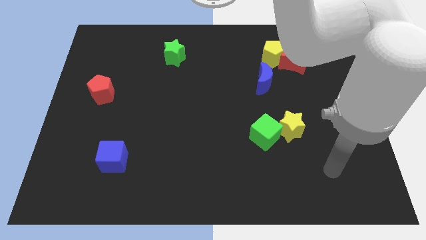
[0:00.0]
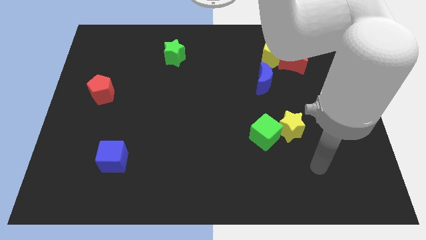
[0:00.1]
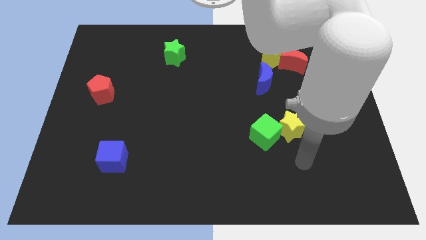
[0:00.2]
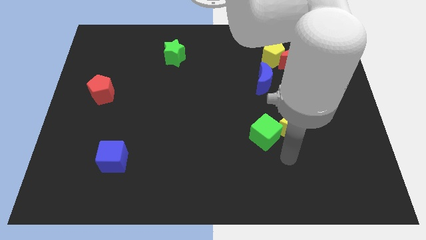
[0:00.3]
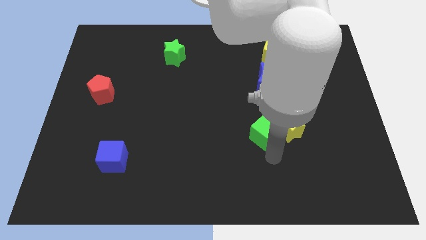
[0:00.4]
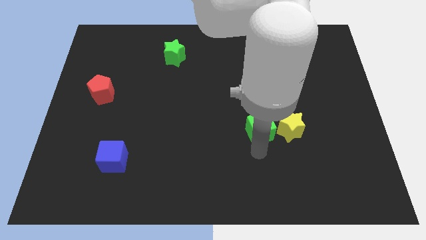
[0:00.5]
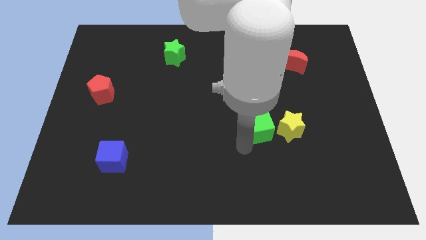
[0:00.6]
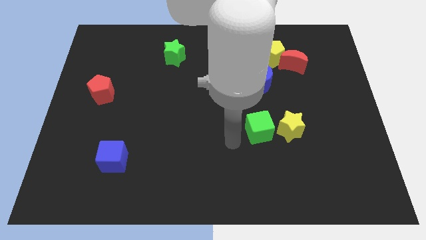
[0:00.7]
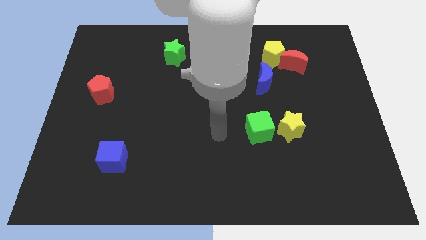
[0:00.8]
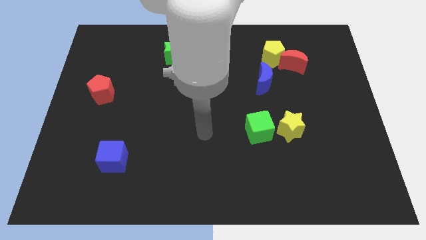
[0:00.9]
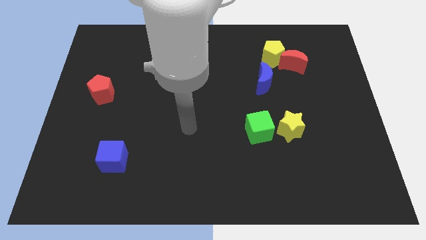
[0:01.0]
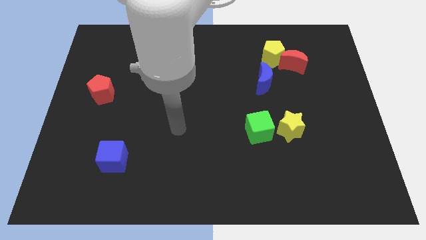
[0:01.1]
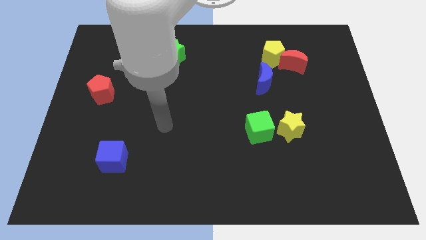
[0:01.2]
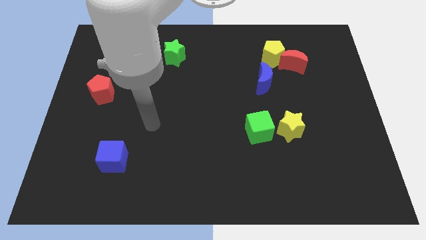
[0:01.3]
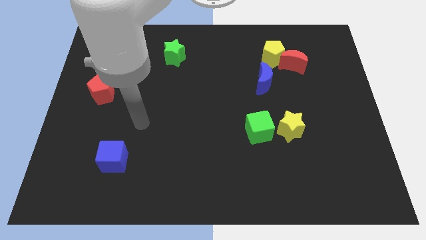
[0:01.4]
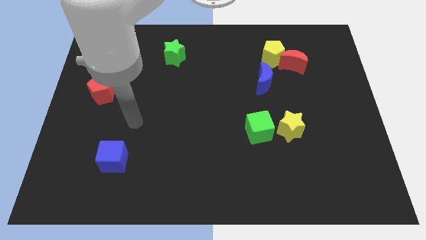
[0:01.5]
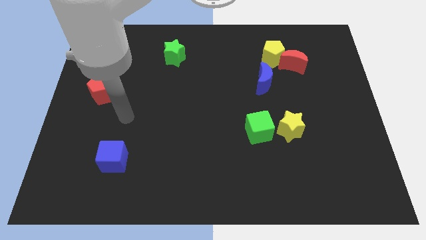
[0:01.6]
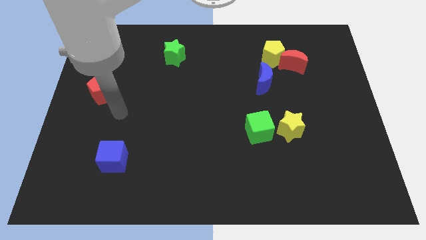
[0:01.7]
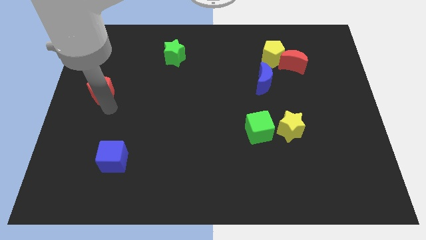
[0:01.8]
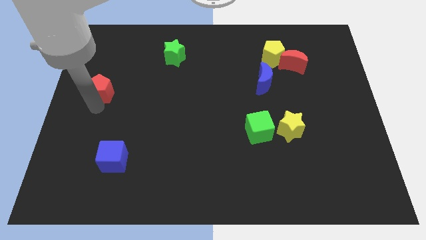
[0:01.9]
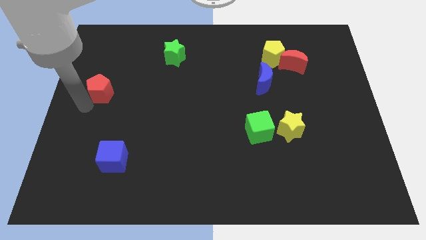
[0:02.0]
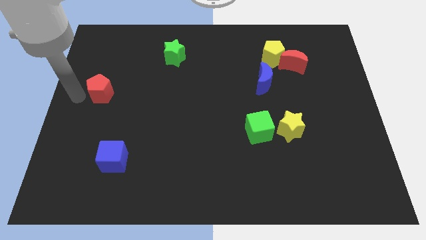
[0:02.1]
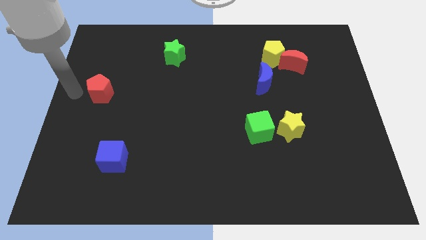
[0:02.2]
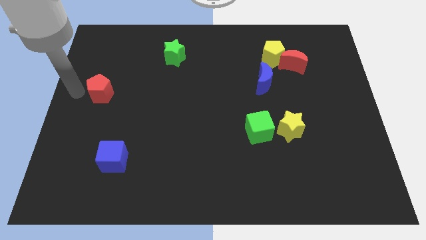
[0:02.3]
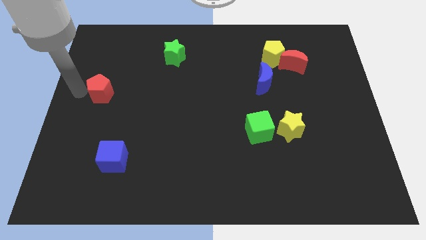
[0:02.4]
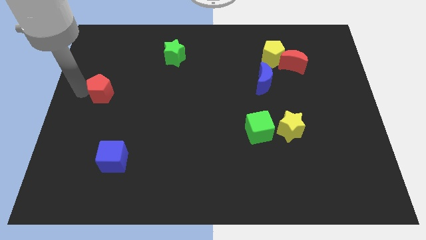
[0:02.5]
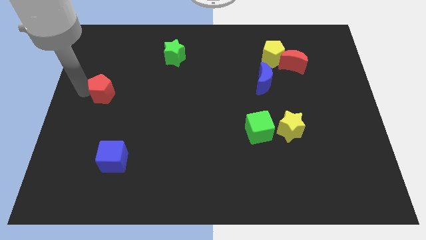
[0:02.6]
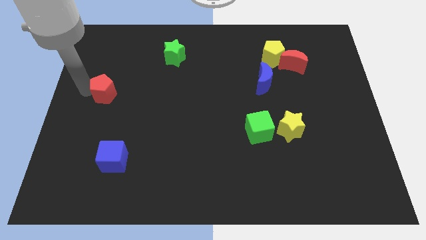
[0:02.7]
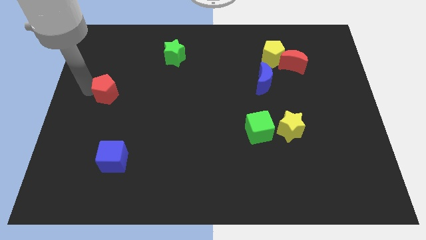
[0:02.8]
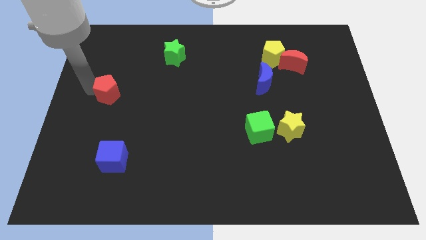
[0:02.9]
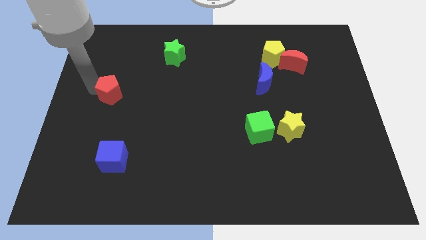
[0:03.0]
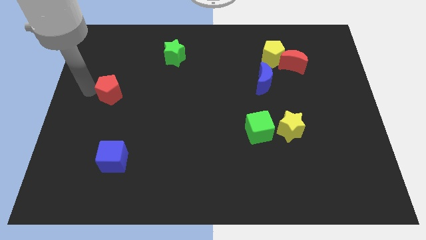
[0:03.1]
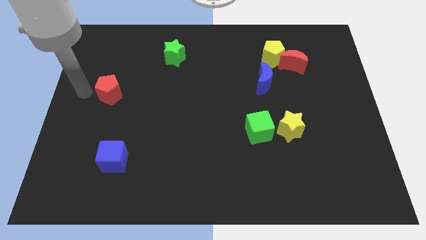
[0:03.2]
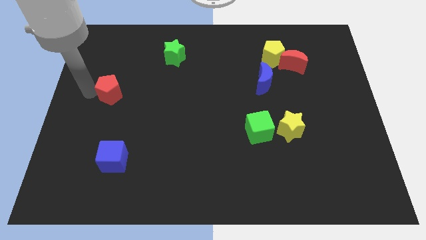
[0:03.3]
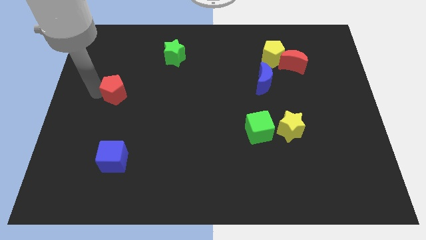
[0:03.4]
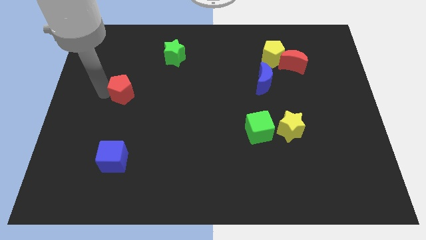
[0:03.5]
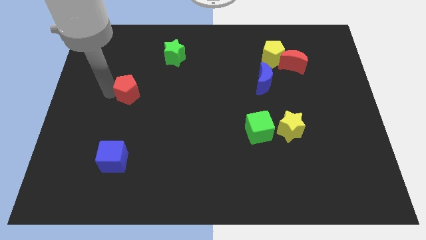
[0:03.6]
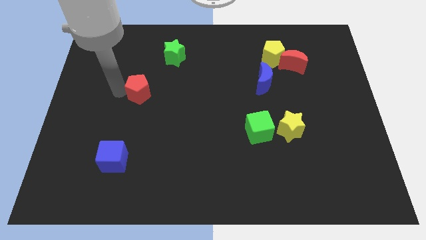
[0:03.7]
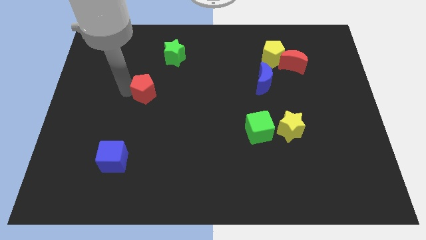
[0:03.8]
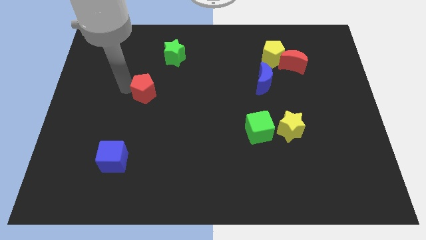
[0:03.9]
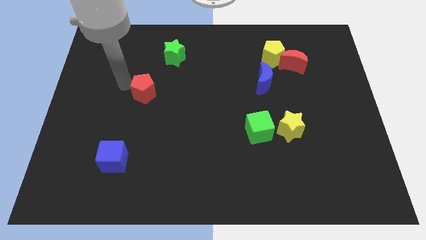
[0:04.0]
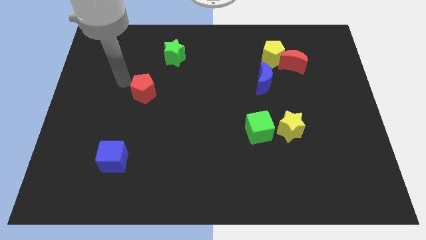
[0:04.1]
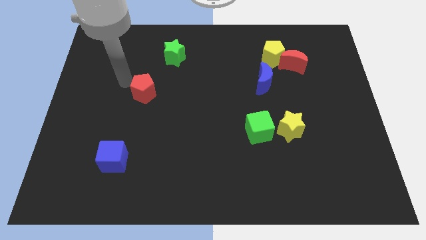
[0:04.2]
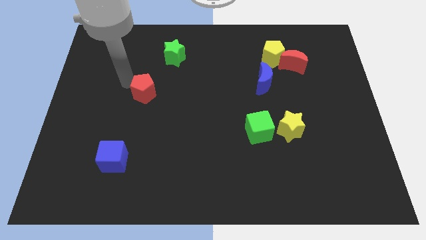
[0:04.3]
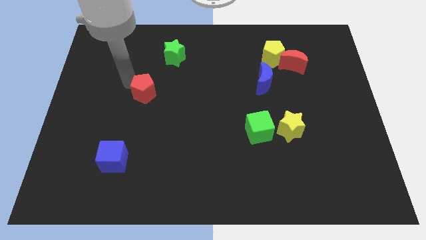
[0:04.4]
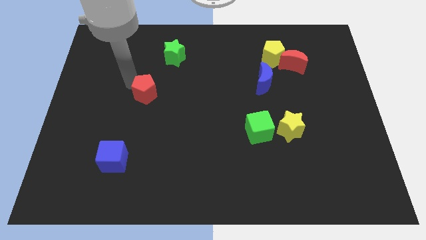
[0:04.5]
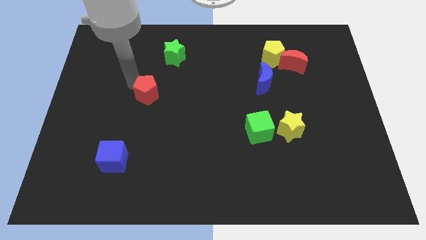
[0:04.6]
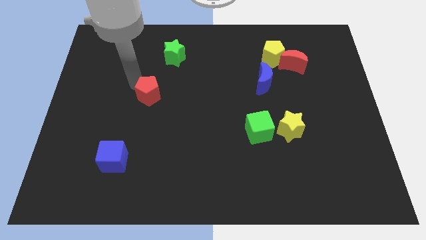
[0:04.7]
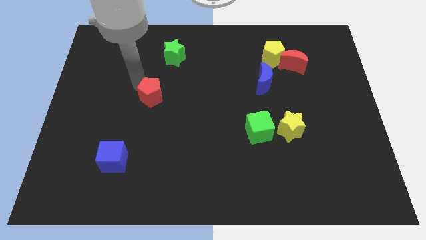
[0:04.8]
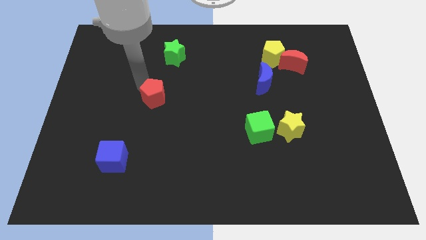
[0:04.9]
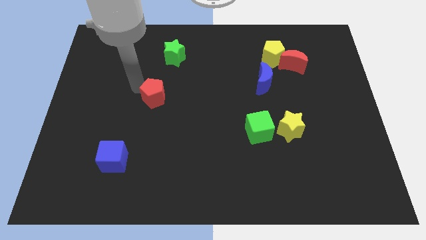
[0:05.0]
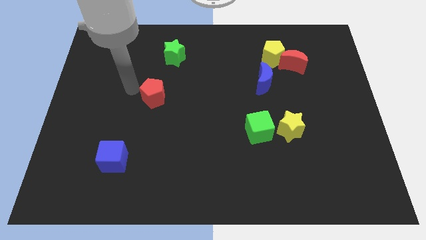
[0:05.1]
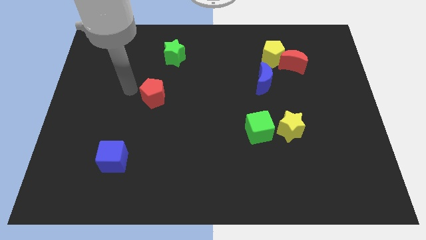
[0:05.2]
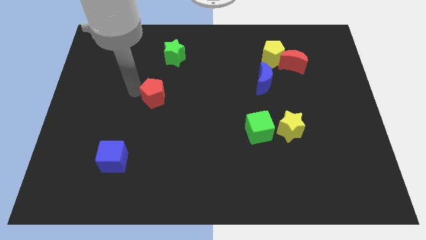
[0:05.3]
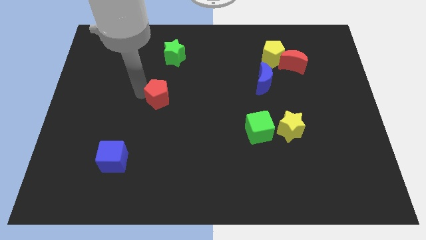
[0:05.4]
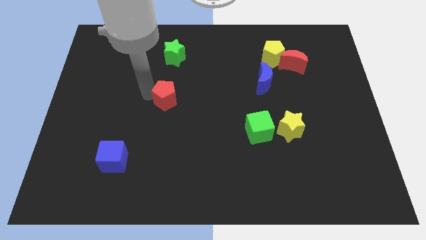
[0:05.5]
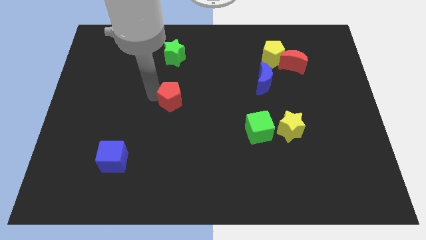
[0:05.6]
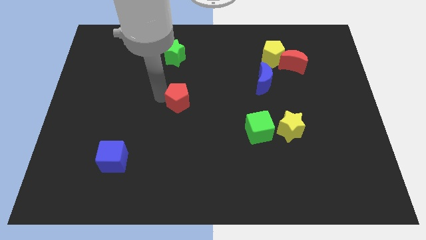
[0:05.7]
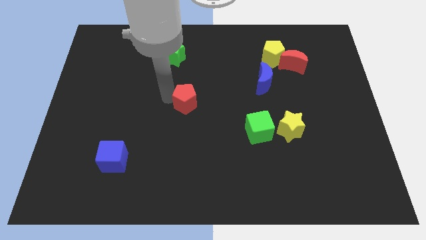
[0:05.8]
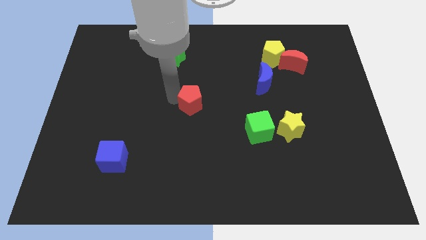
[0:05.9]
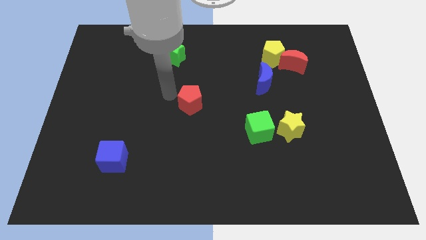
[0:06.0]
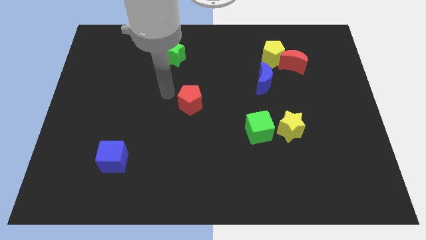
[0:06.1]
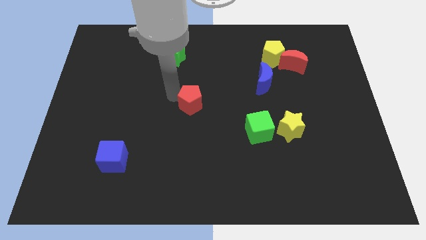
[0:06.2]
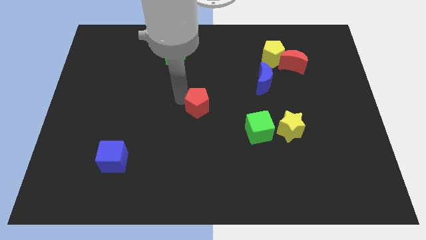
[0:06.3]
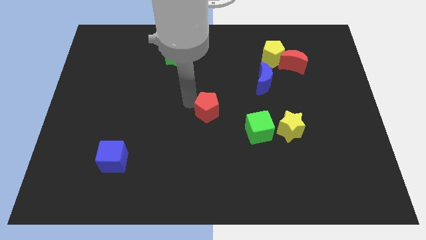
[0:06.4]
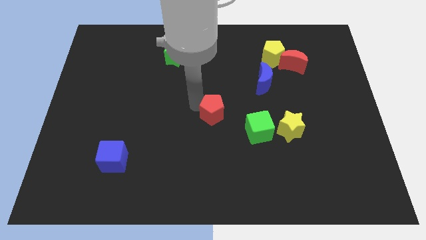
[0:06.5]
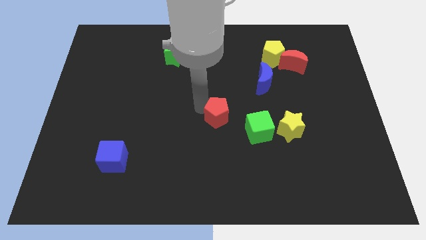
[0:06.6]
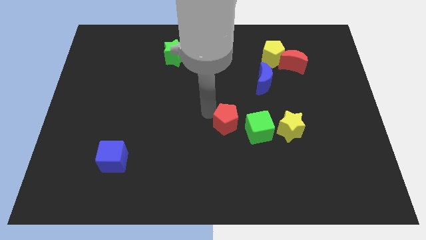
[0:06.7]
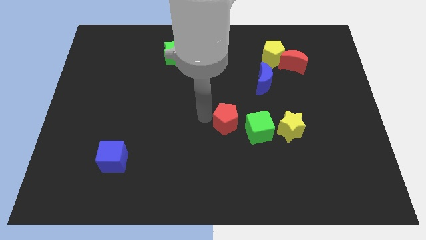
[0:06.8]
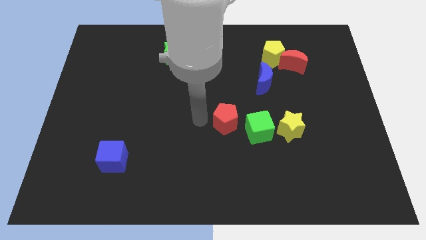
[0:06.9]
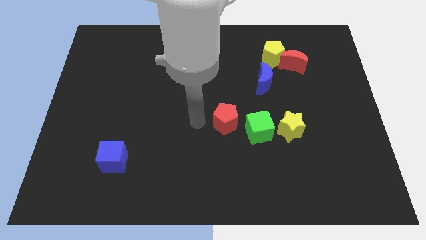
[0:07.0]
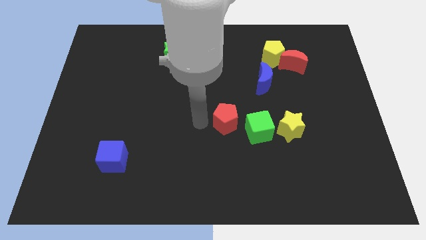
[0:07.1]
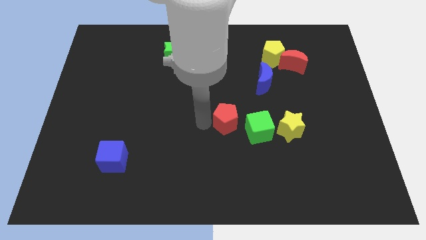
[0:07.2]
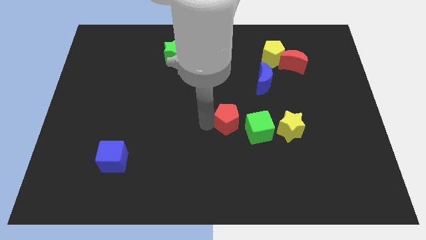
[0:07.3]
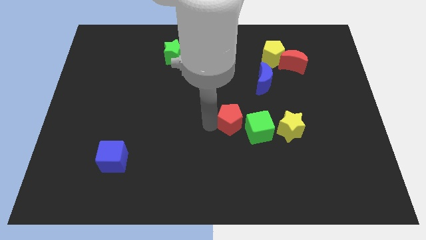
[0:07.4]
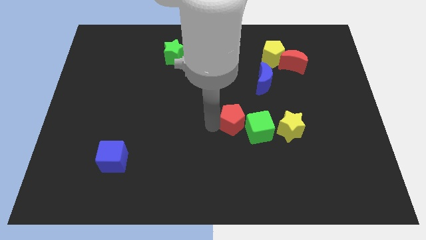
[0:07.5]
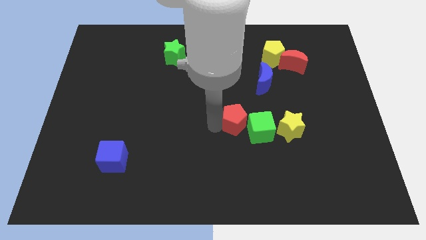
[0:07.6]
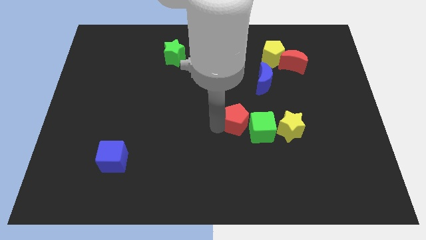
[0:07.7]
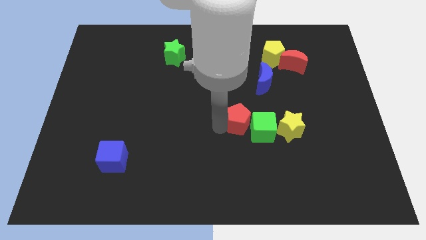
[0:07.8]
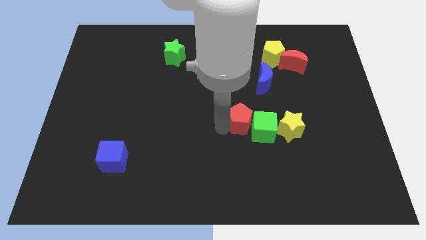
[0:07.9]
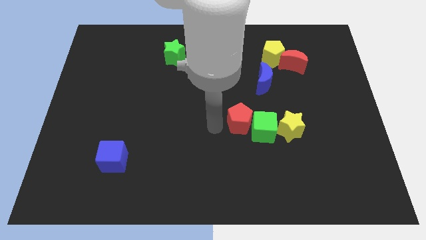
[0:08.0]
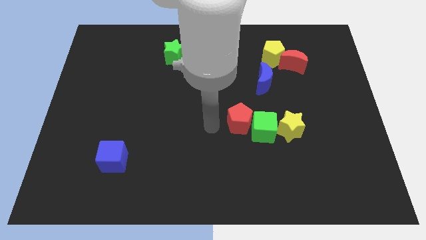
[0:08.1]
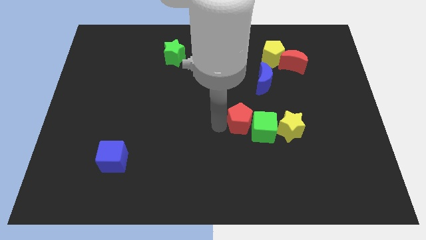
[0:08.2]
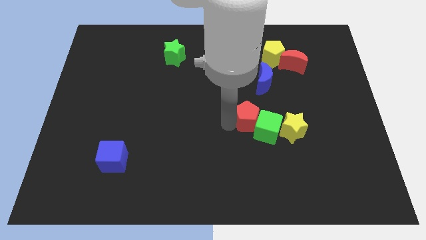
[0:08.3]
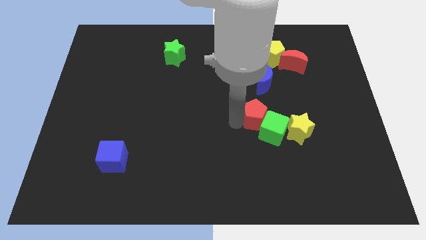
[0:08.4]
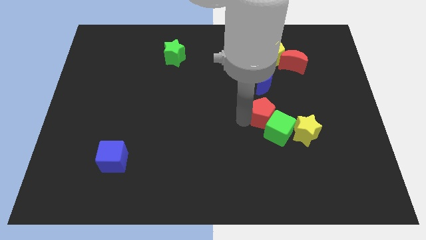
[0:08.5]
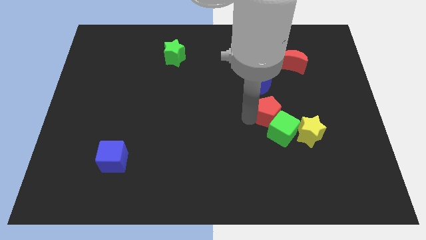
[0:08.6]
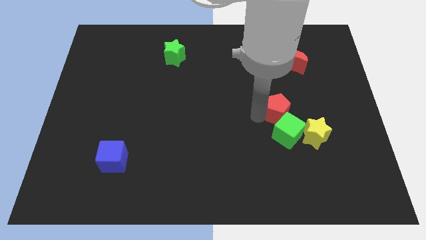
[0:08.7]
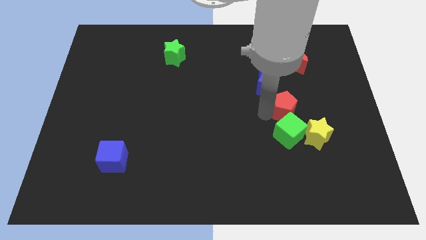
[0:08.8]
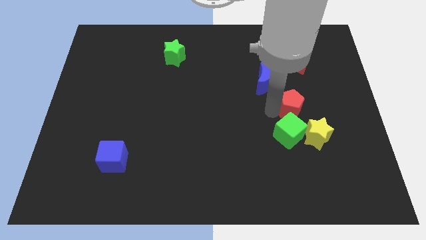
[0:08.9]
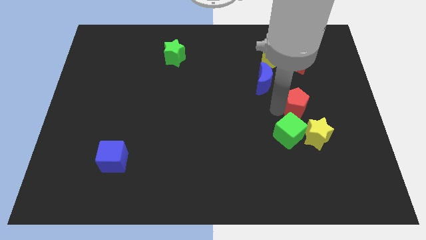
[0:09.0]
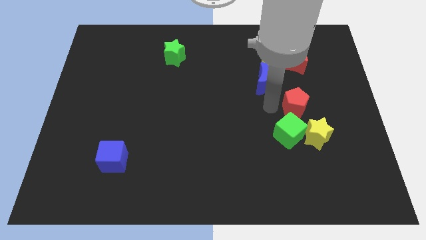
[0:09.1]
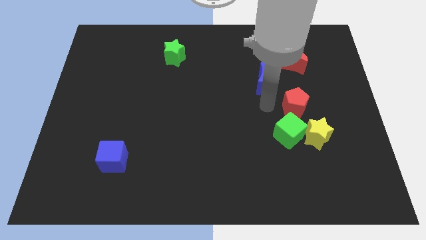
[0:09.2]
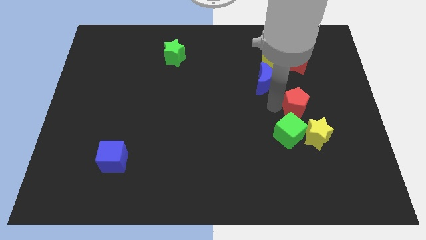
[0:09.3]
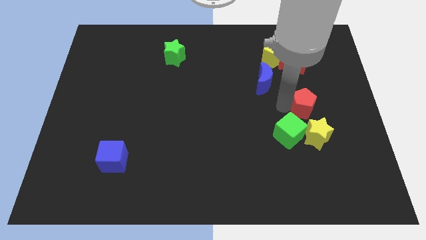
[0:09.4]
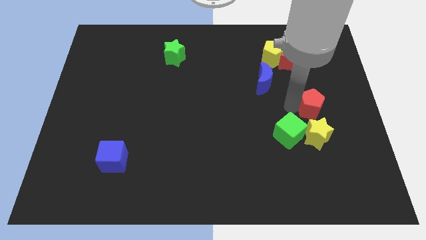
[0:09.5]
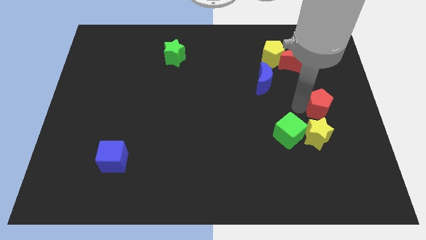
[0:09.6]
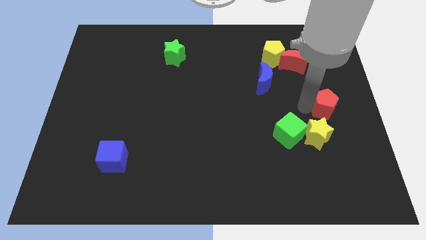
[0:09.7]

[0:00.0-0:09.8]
push the red pentagon to the right side of the board
